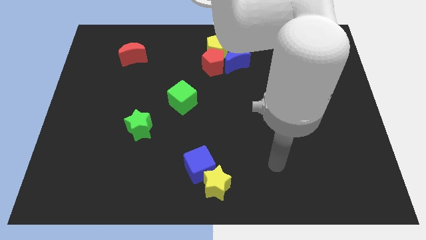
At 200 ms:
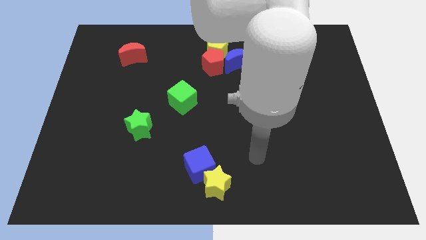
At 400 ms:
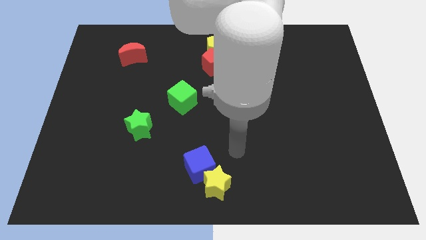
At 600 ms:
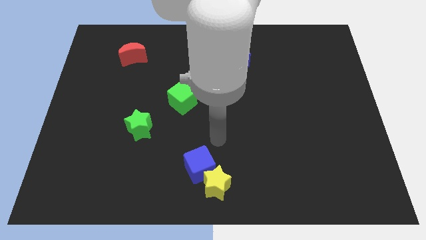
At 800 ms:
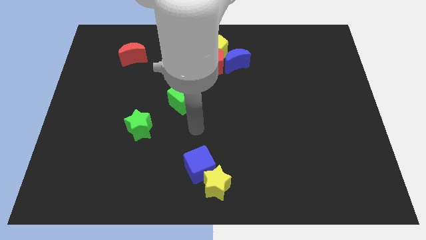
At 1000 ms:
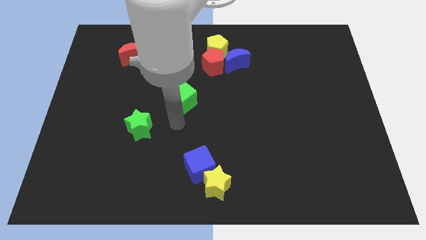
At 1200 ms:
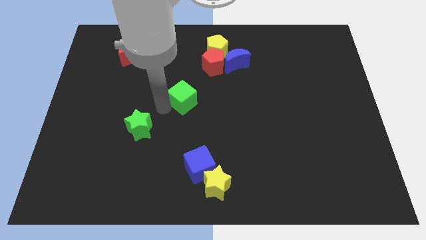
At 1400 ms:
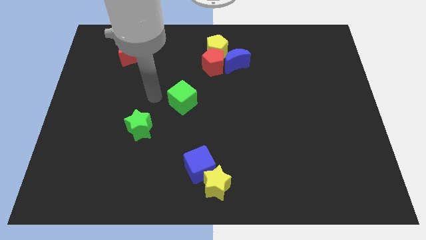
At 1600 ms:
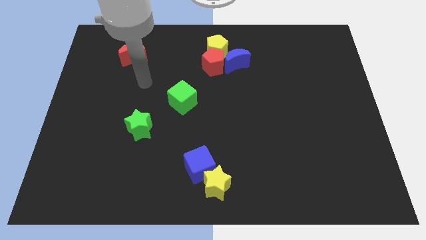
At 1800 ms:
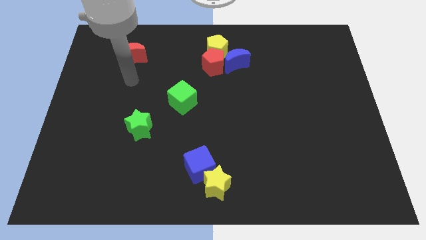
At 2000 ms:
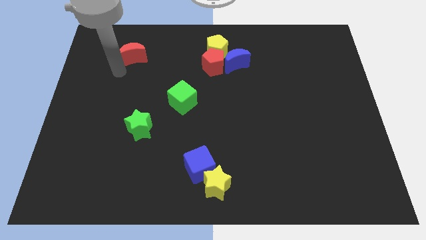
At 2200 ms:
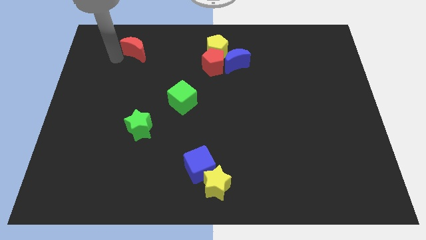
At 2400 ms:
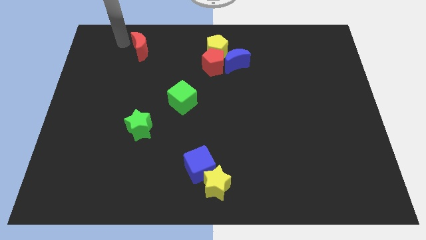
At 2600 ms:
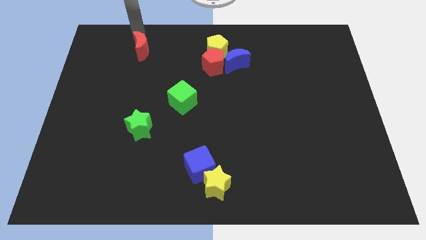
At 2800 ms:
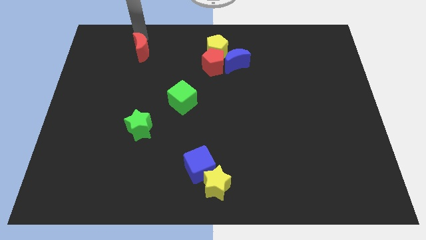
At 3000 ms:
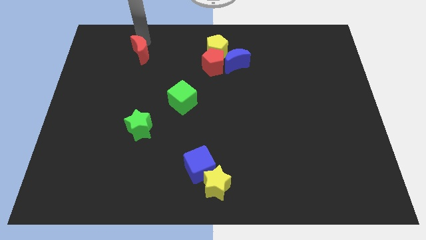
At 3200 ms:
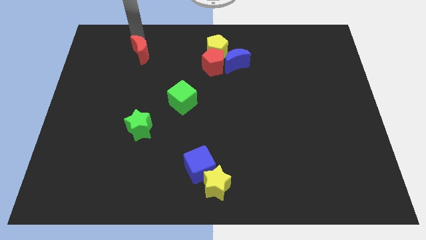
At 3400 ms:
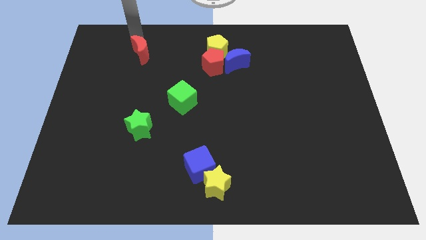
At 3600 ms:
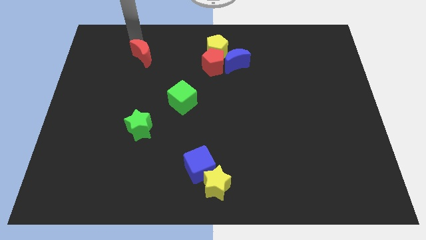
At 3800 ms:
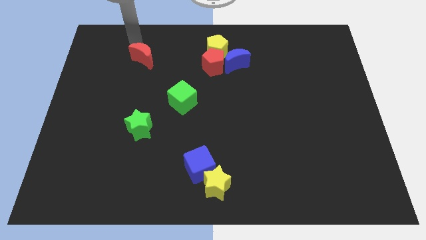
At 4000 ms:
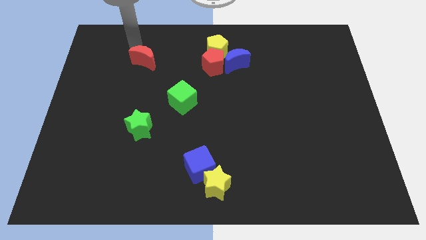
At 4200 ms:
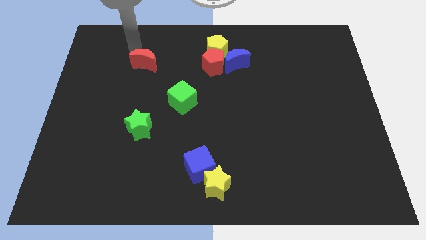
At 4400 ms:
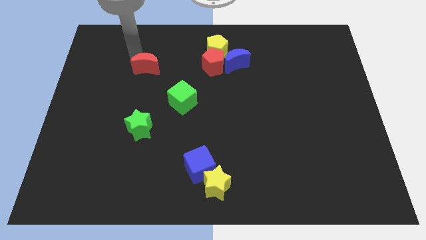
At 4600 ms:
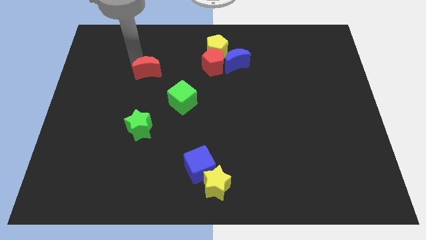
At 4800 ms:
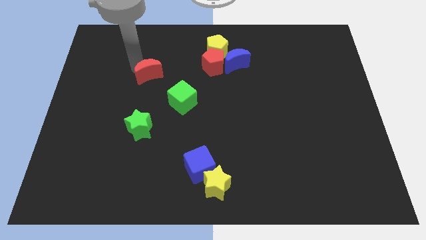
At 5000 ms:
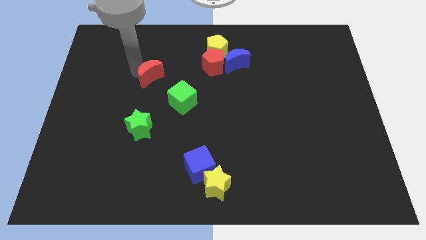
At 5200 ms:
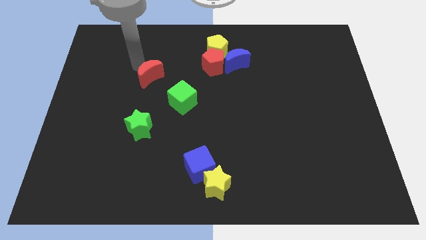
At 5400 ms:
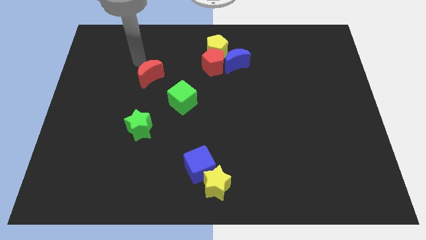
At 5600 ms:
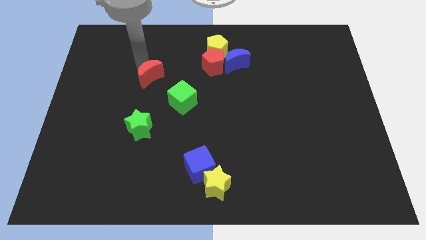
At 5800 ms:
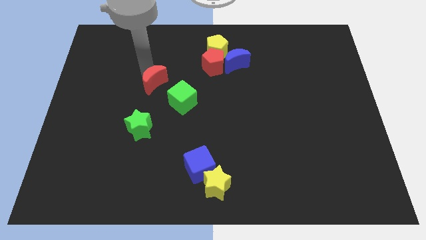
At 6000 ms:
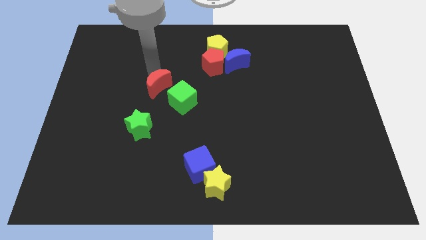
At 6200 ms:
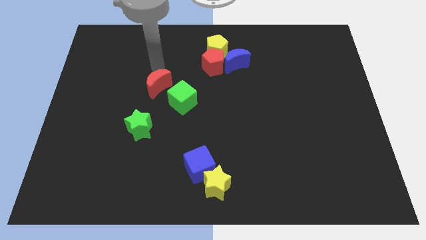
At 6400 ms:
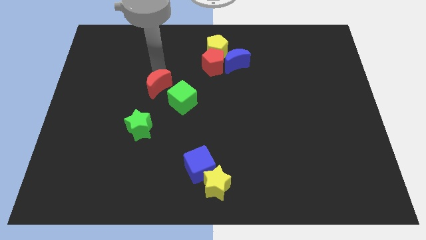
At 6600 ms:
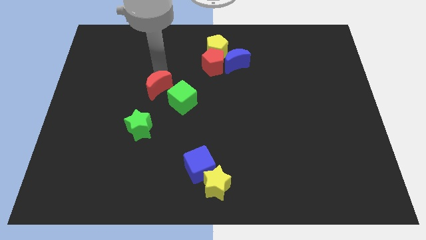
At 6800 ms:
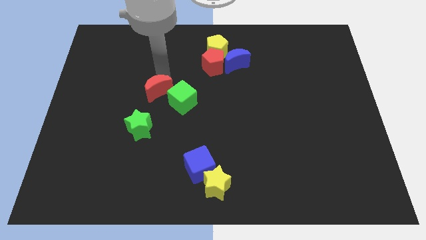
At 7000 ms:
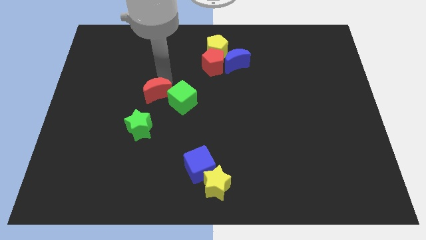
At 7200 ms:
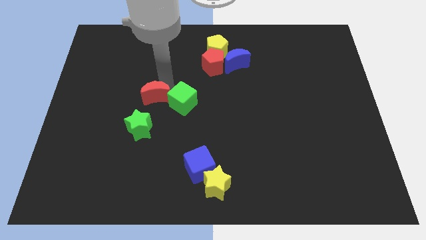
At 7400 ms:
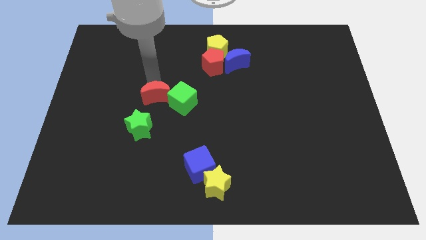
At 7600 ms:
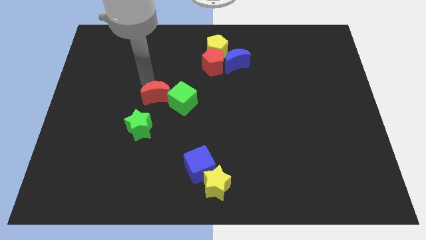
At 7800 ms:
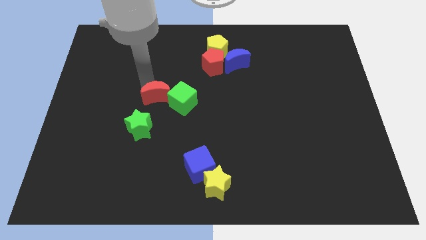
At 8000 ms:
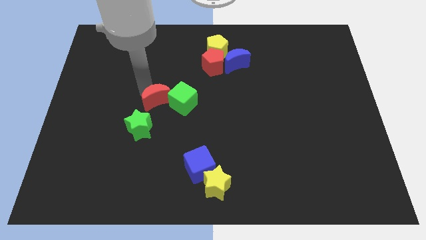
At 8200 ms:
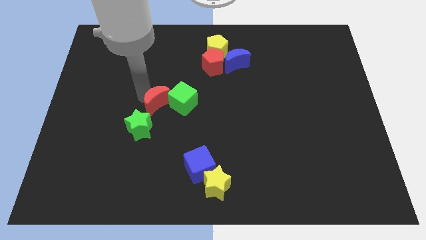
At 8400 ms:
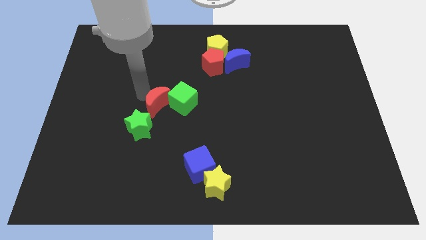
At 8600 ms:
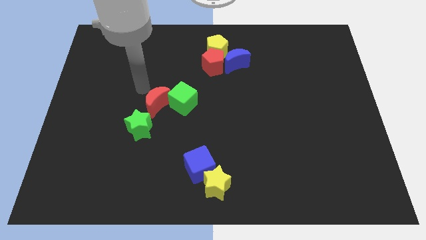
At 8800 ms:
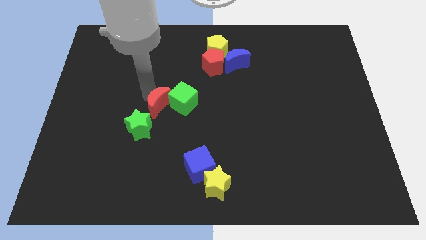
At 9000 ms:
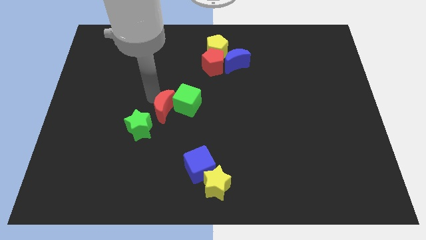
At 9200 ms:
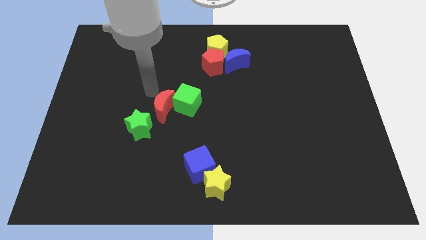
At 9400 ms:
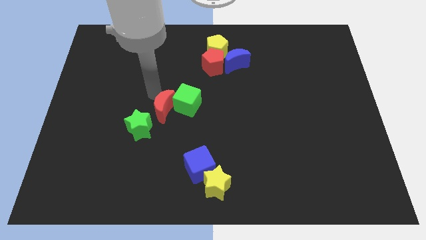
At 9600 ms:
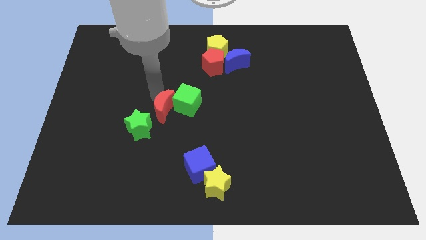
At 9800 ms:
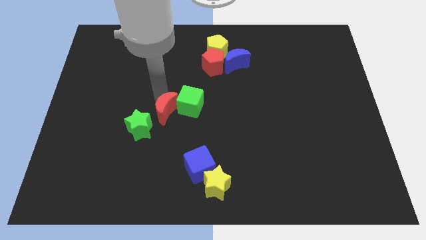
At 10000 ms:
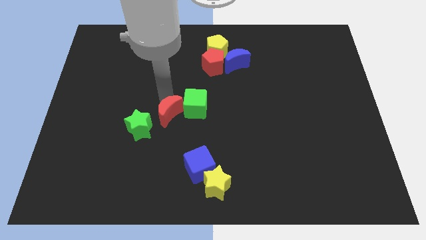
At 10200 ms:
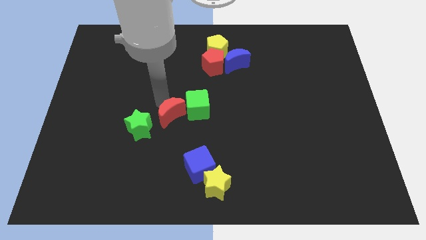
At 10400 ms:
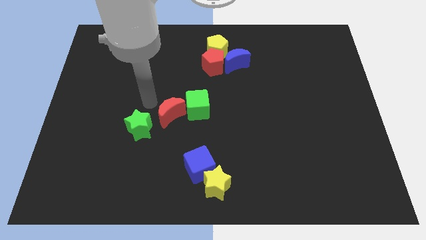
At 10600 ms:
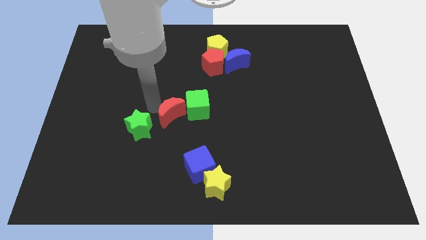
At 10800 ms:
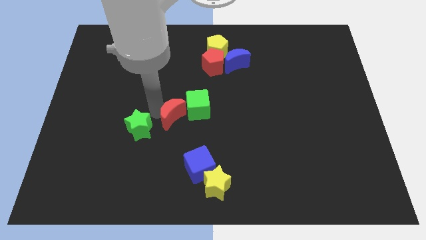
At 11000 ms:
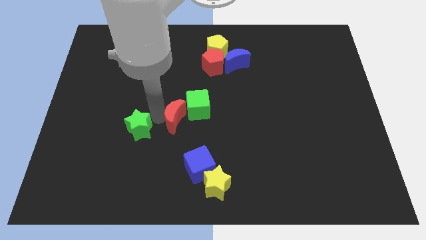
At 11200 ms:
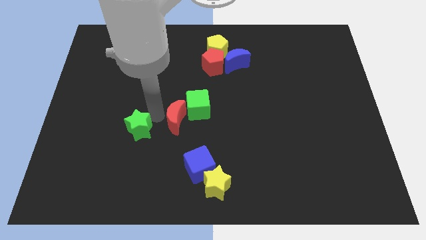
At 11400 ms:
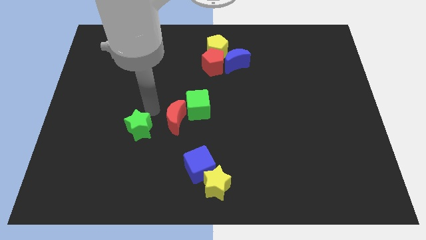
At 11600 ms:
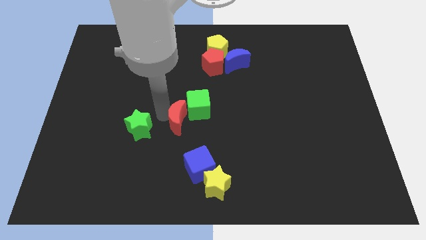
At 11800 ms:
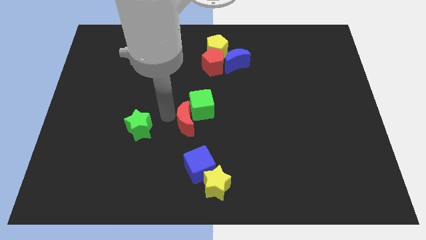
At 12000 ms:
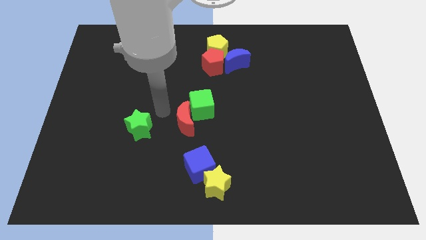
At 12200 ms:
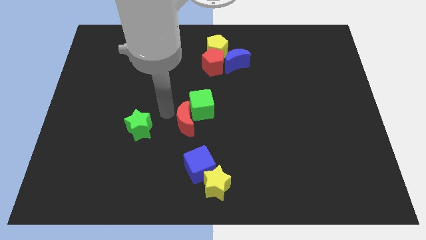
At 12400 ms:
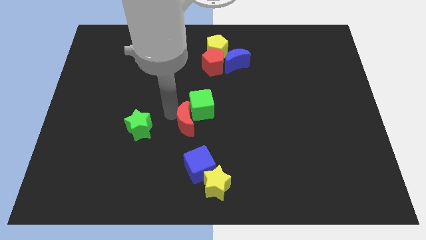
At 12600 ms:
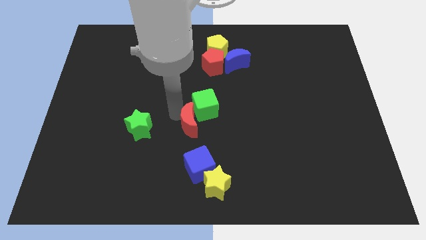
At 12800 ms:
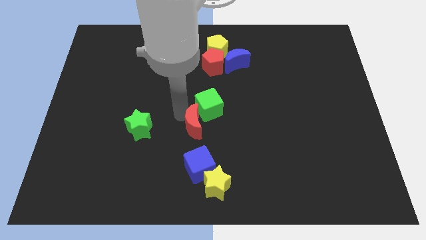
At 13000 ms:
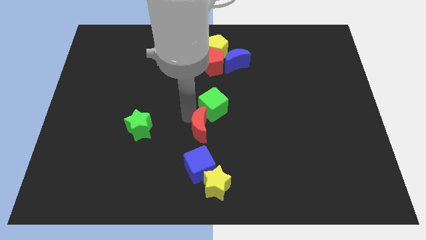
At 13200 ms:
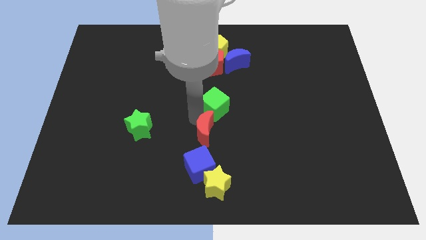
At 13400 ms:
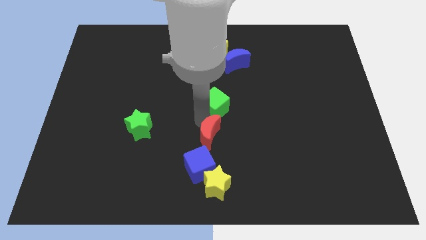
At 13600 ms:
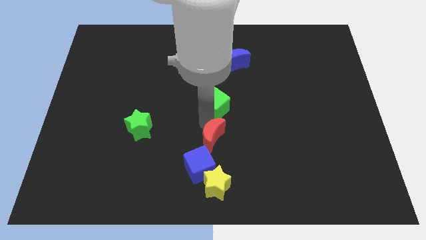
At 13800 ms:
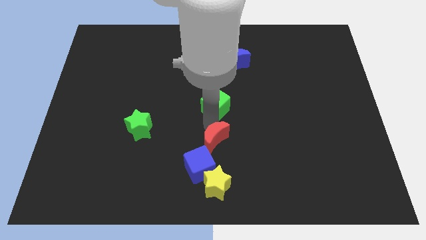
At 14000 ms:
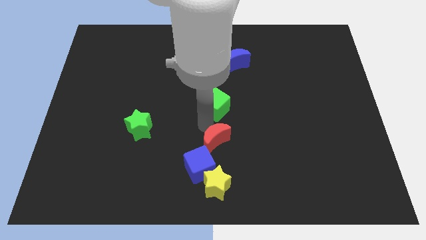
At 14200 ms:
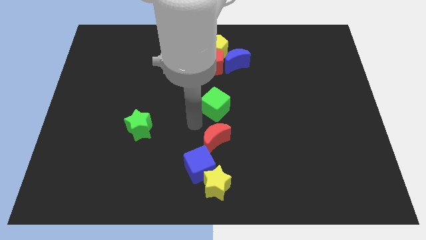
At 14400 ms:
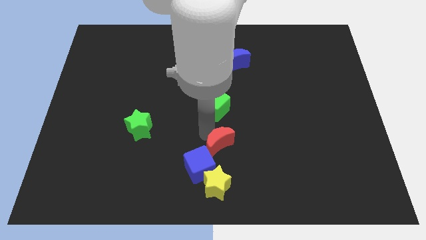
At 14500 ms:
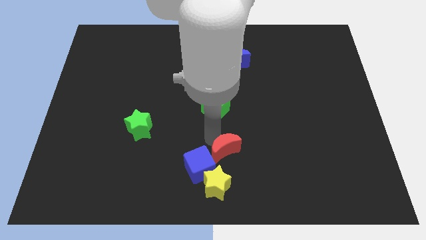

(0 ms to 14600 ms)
move the red moon to the top right of the yellow star
